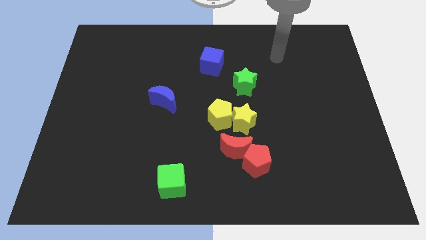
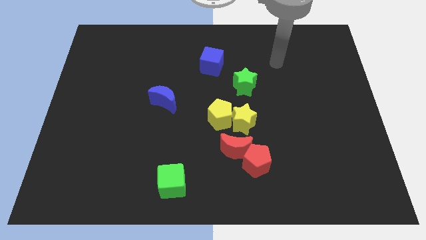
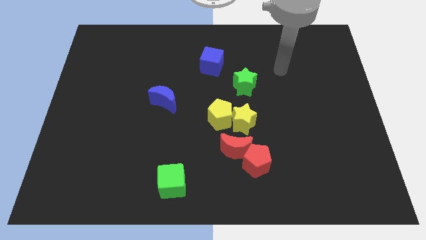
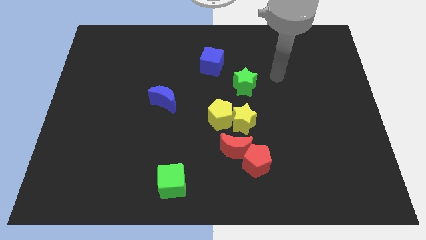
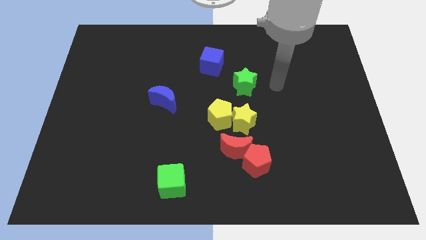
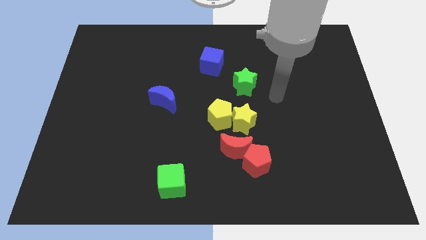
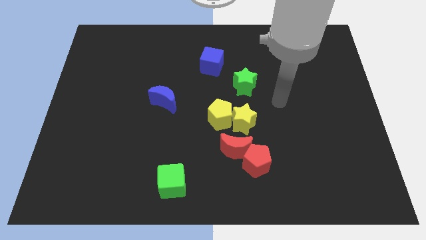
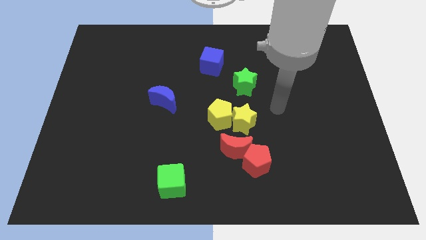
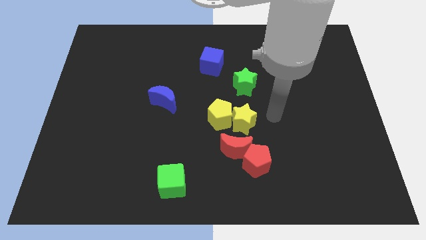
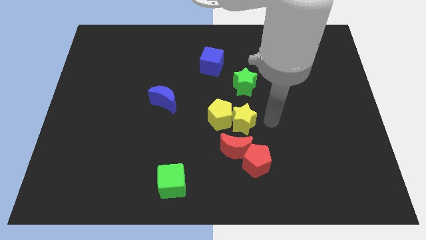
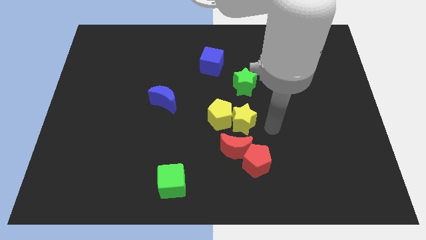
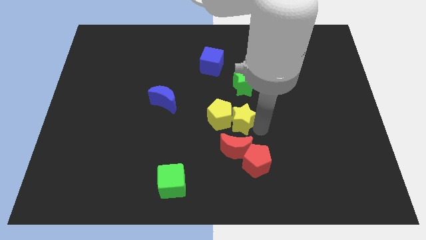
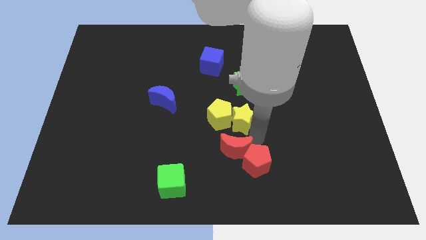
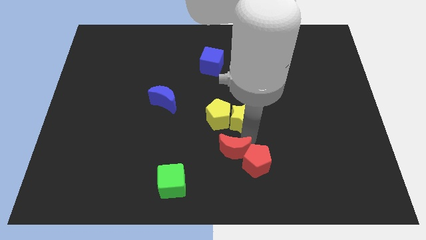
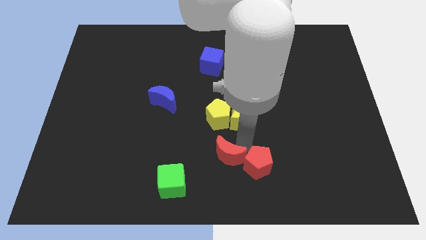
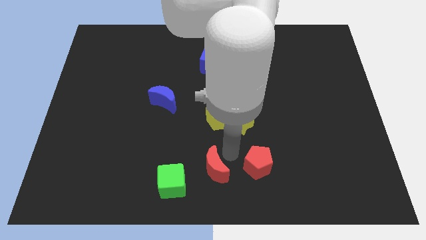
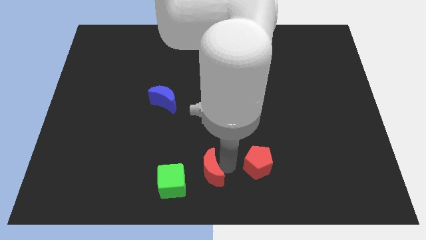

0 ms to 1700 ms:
separate the red pentagon from the red moon

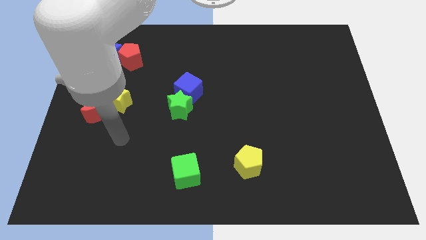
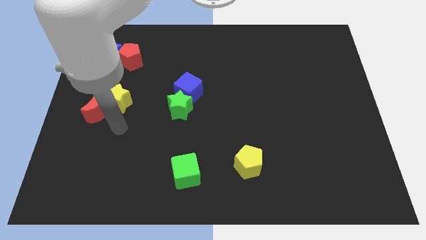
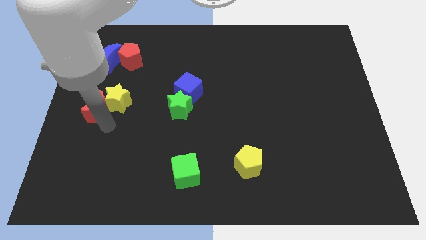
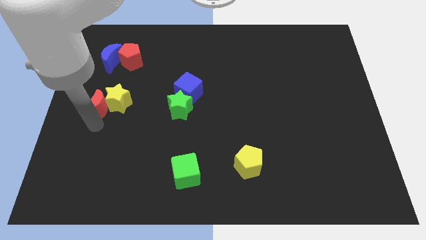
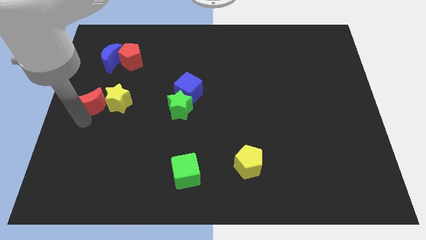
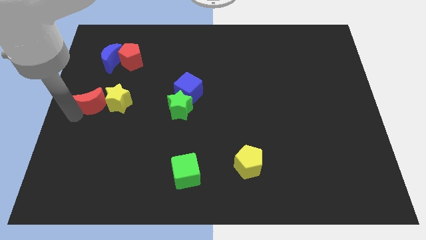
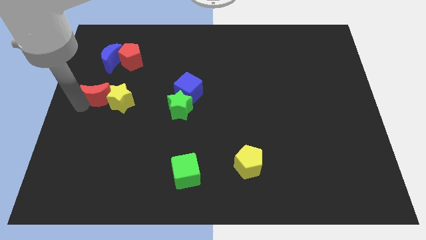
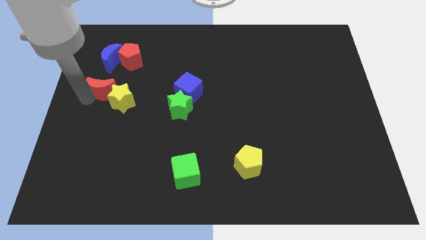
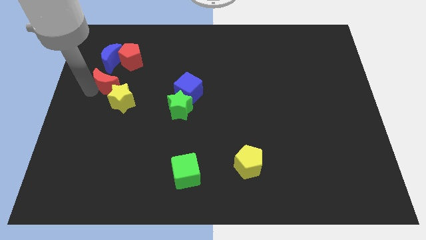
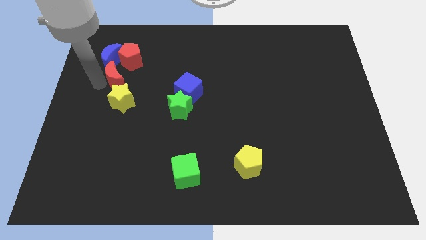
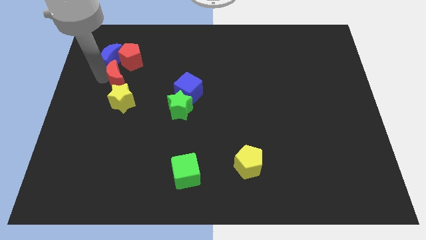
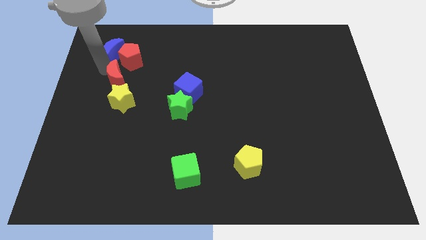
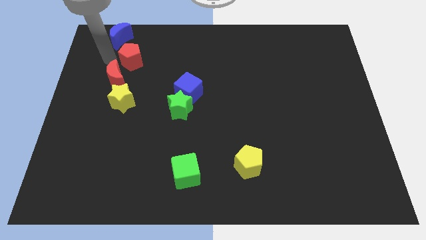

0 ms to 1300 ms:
move the red pentagon away from the blue moon

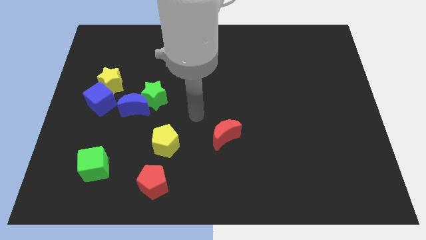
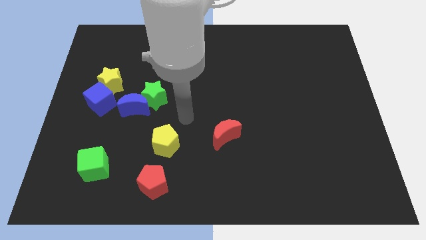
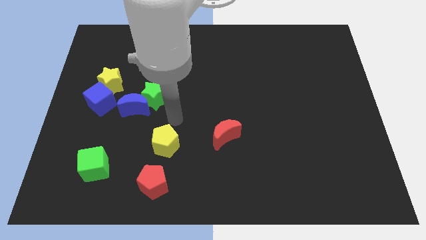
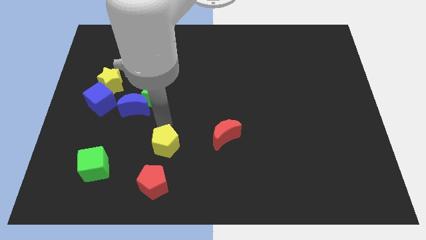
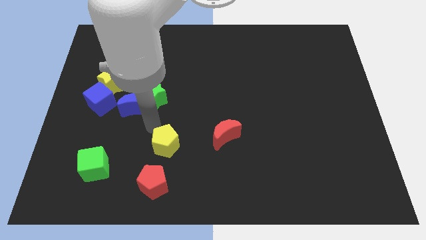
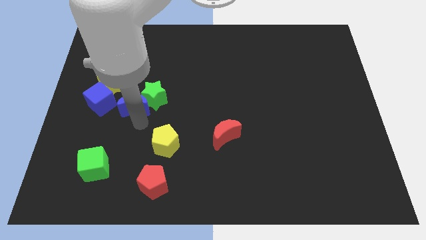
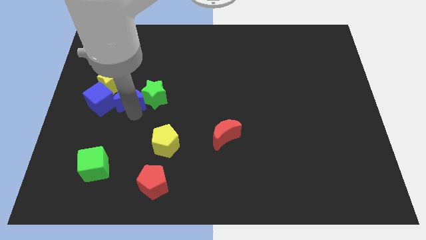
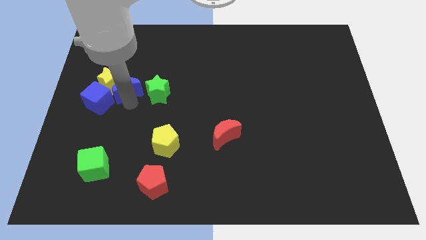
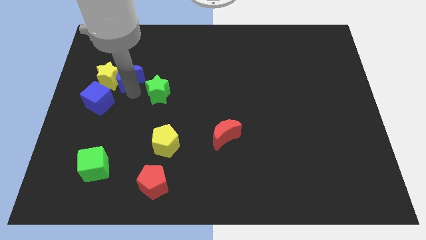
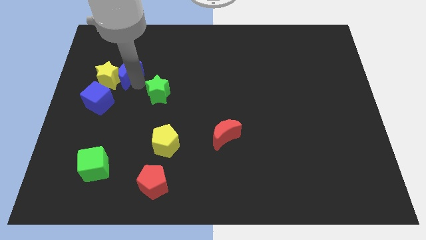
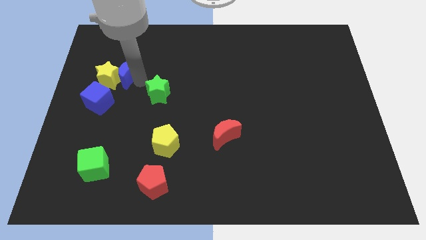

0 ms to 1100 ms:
move the green star away from the blue moon

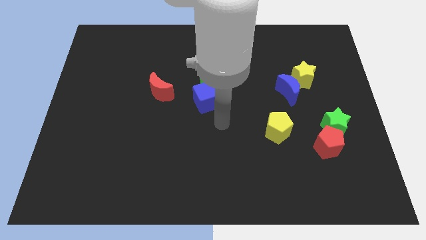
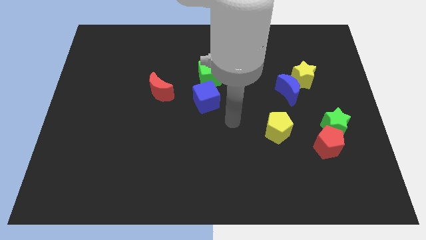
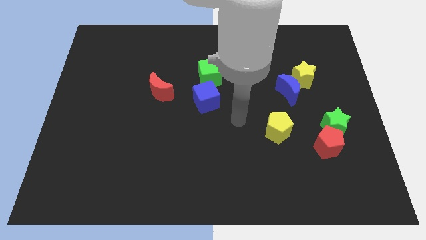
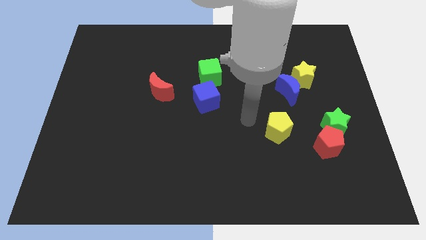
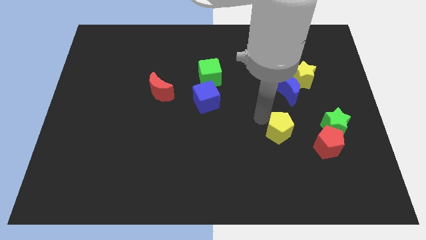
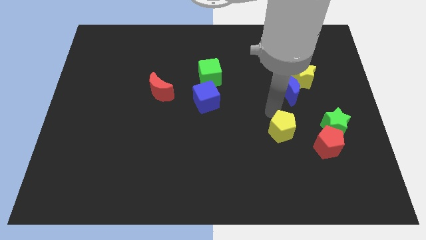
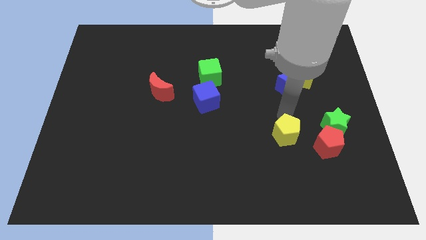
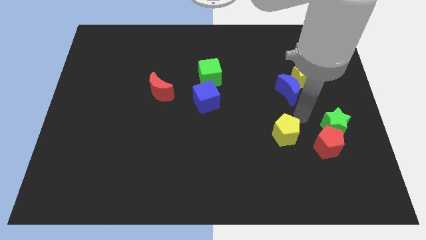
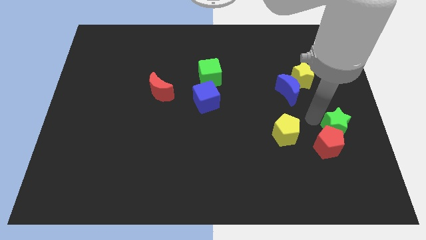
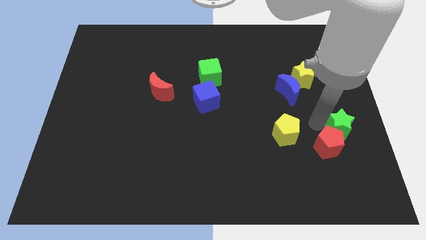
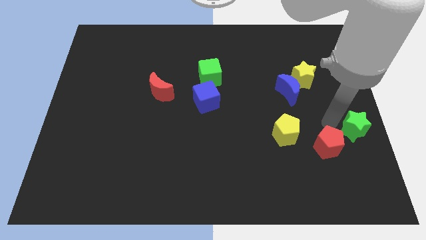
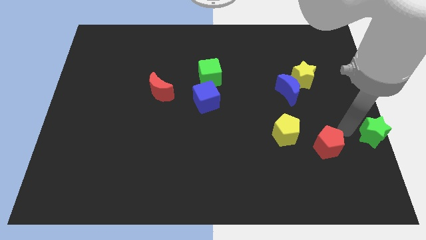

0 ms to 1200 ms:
separate the red pentagon from the green star

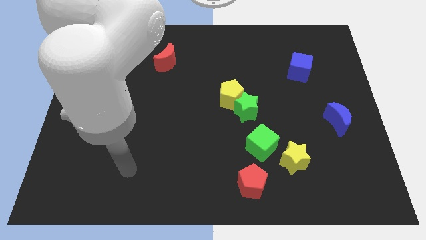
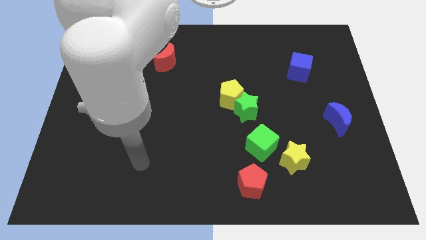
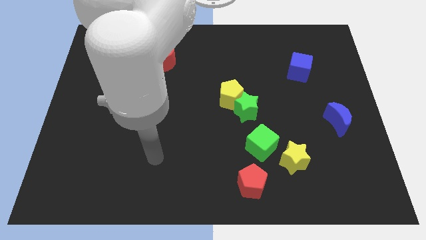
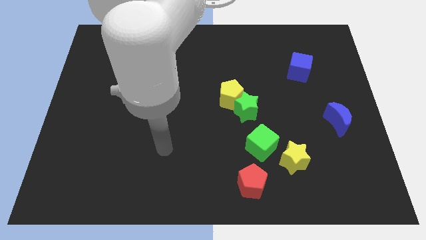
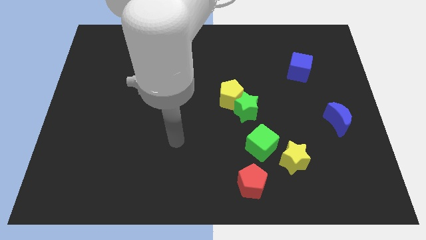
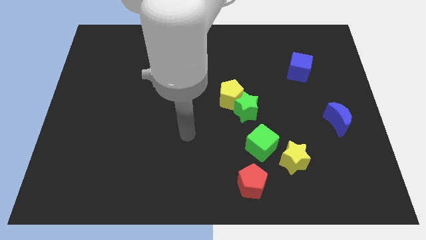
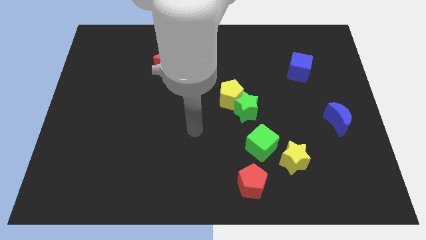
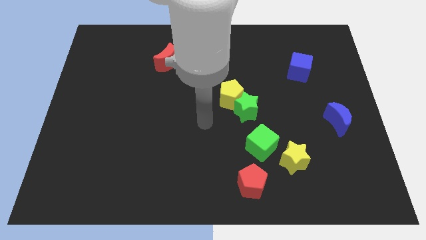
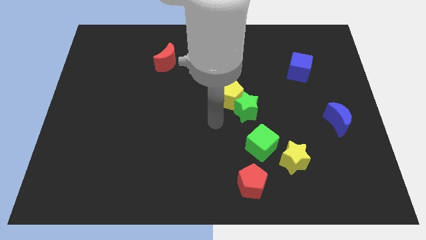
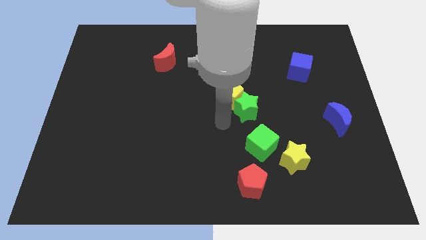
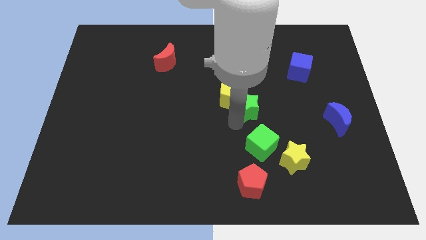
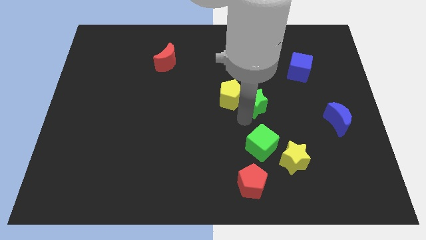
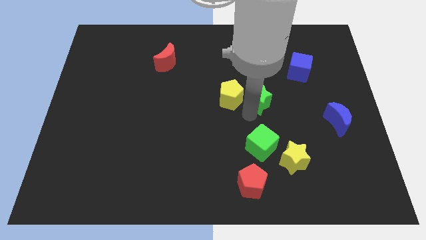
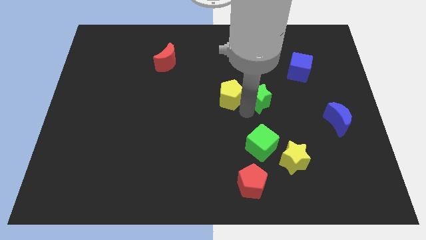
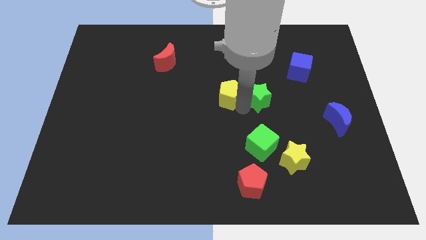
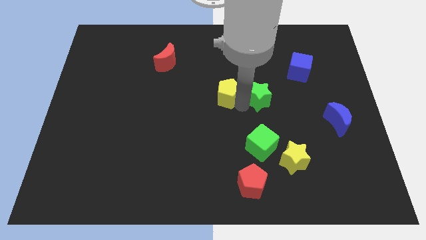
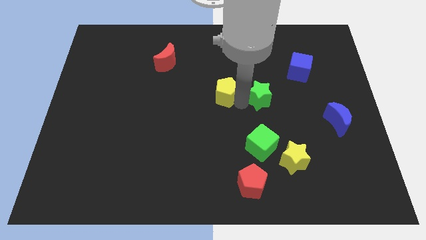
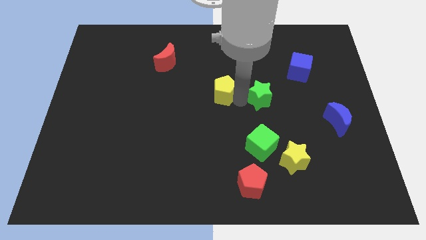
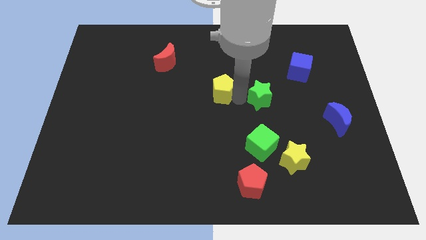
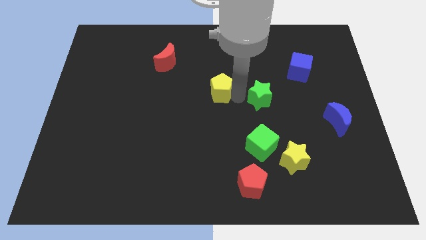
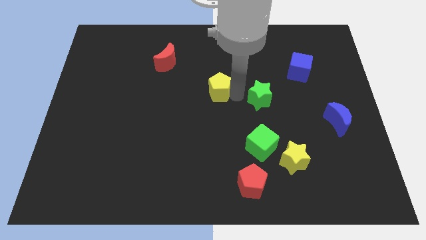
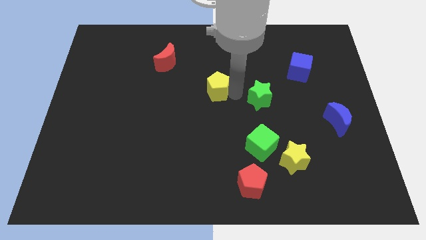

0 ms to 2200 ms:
move the yellow pentagon away from the green star

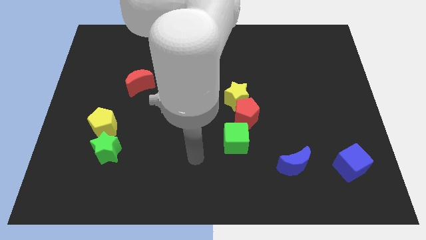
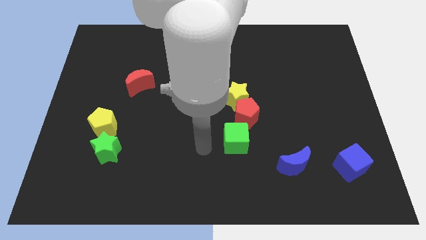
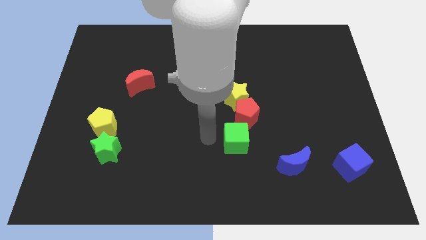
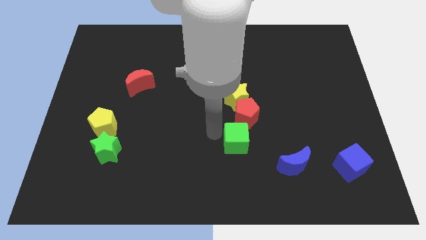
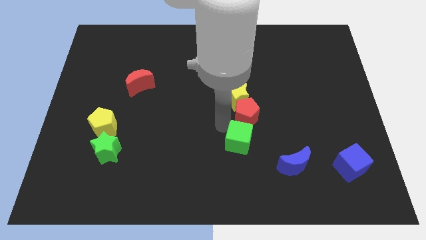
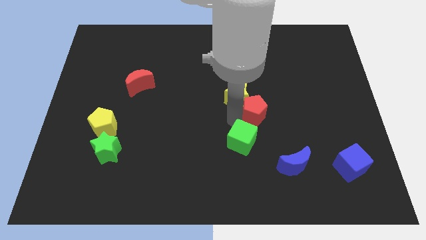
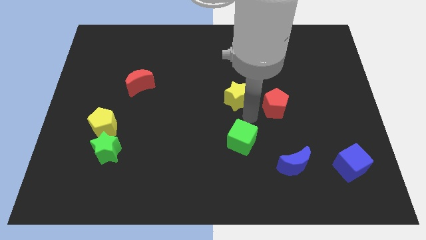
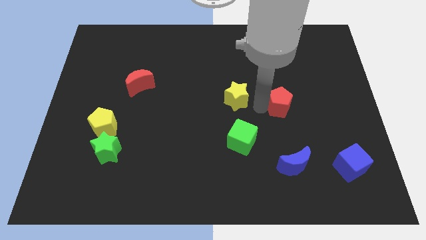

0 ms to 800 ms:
separate the yellow star from the red pentagon

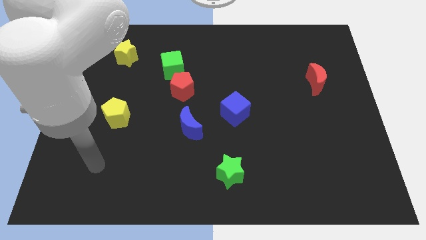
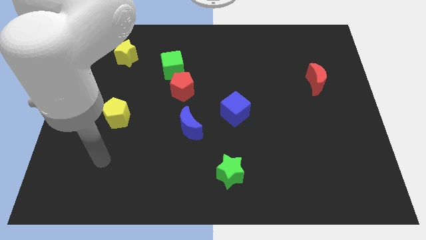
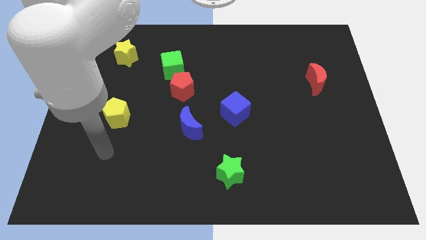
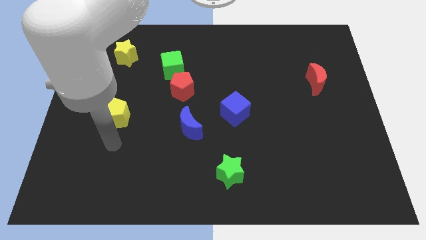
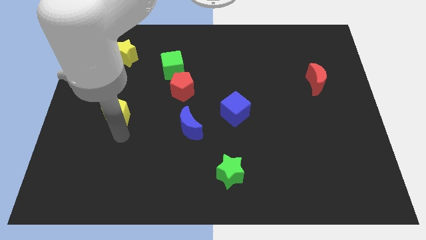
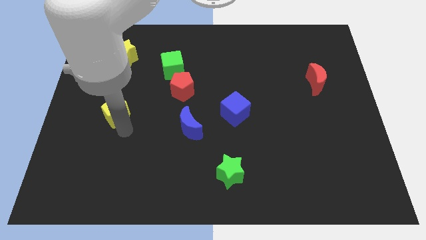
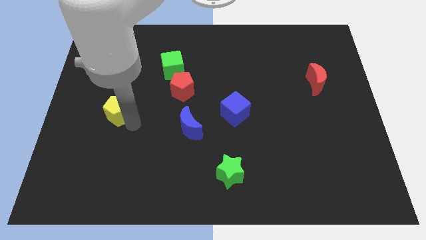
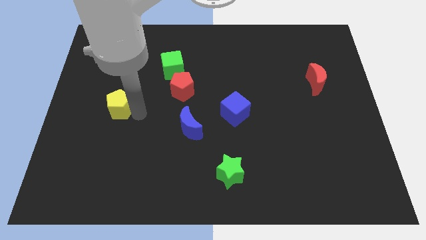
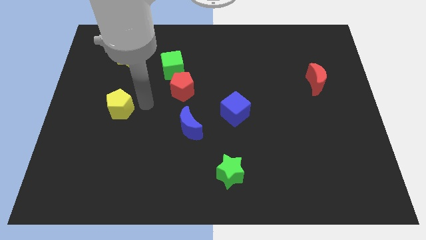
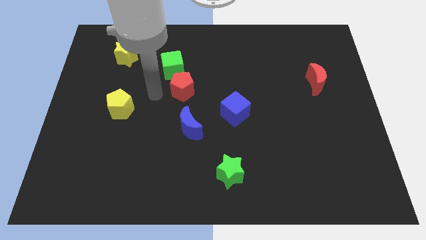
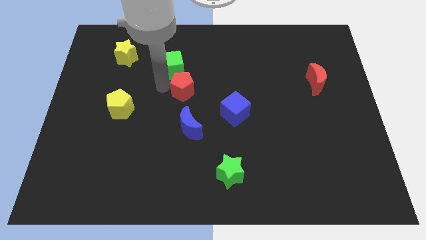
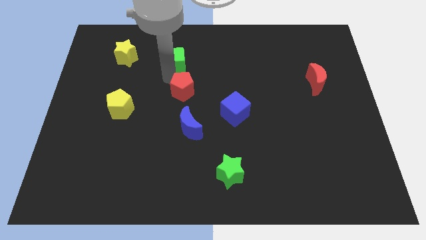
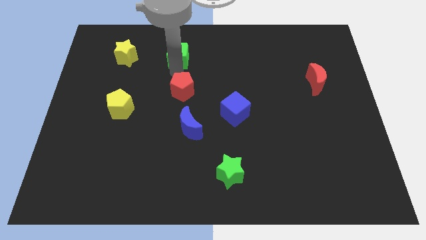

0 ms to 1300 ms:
separate the red pentagon from the green cube
